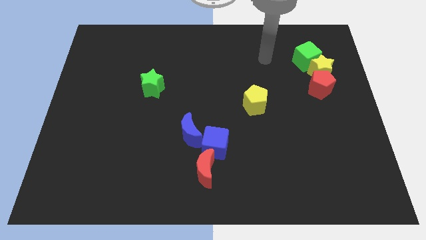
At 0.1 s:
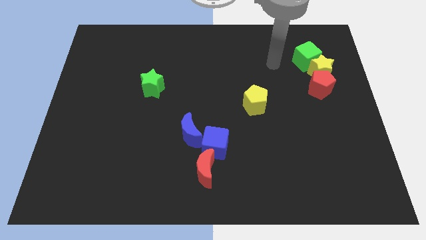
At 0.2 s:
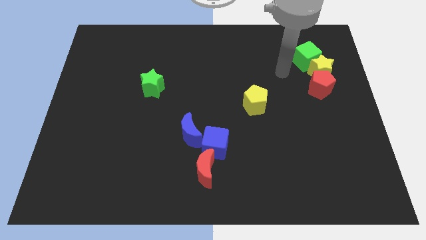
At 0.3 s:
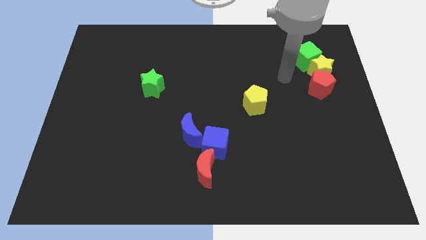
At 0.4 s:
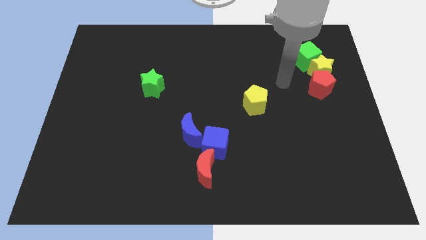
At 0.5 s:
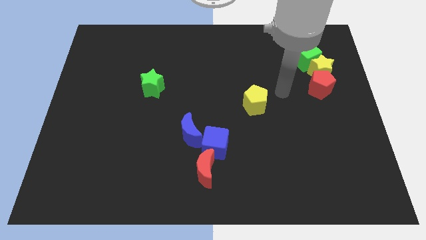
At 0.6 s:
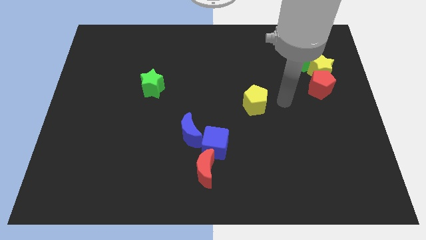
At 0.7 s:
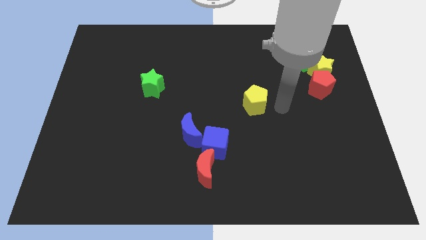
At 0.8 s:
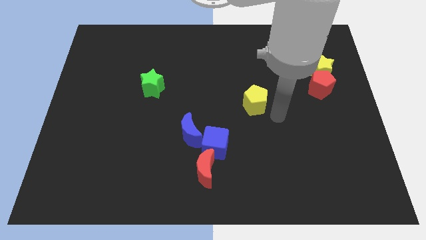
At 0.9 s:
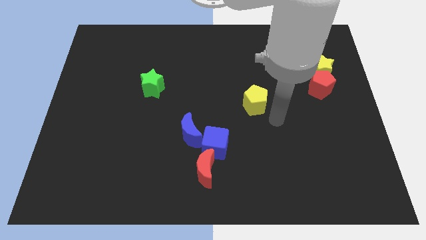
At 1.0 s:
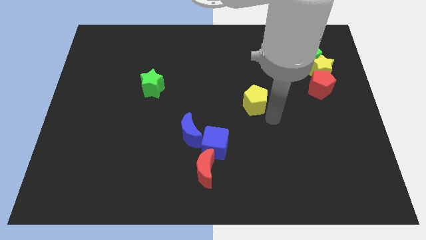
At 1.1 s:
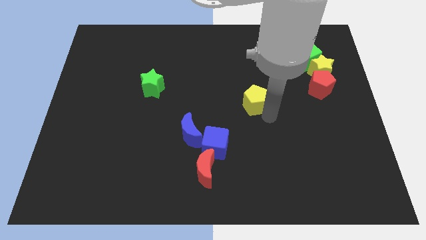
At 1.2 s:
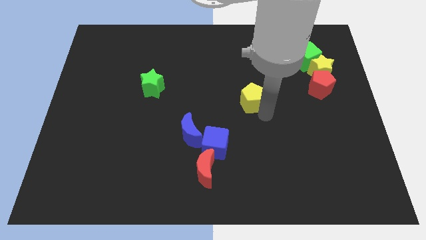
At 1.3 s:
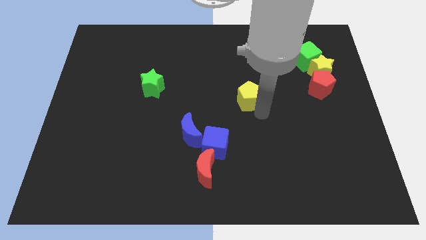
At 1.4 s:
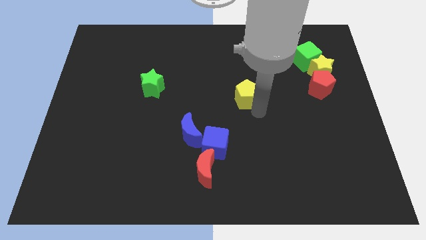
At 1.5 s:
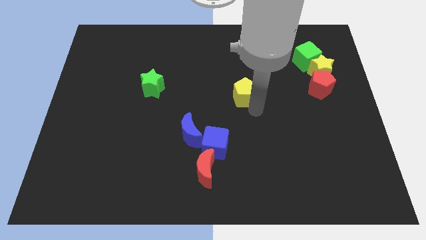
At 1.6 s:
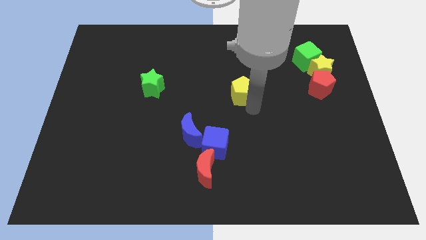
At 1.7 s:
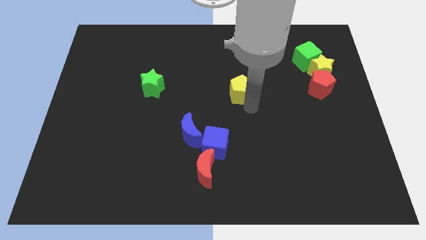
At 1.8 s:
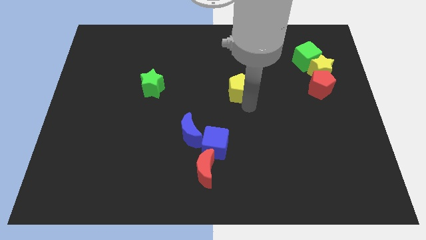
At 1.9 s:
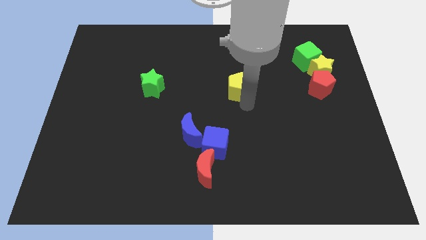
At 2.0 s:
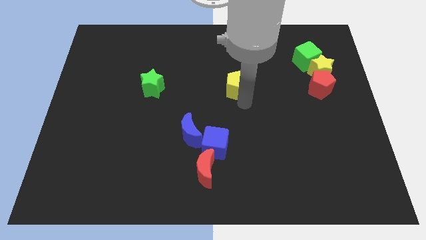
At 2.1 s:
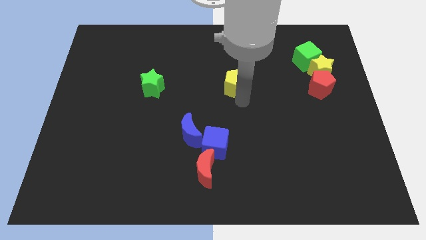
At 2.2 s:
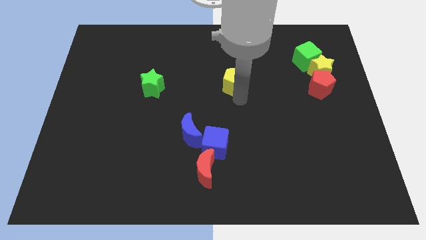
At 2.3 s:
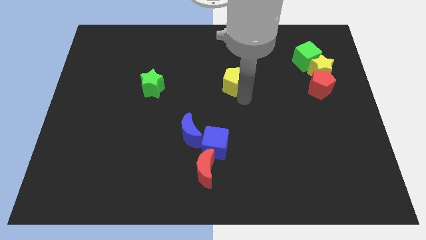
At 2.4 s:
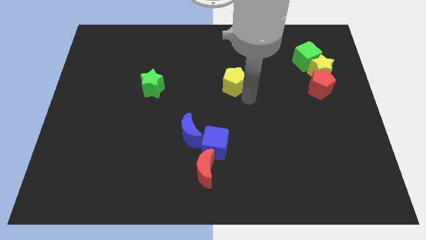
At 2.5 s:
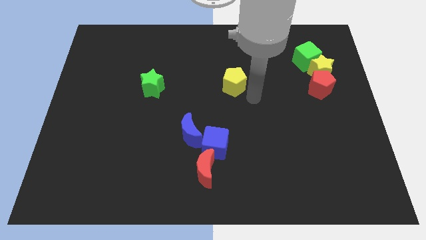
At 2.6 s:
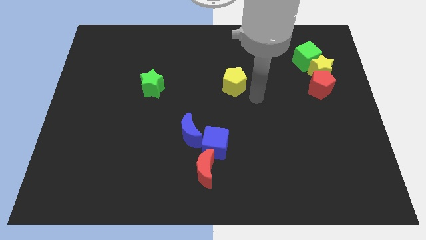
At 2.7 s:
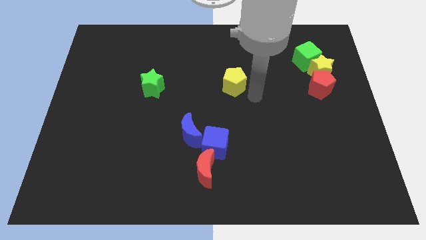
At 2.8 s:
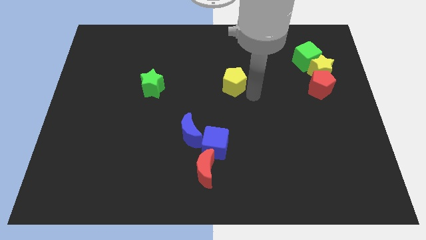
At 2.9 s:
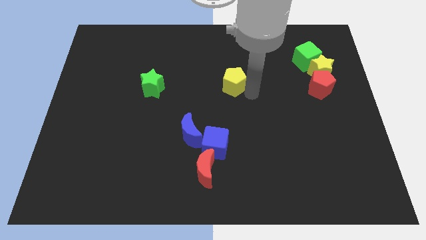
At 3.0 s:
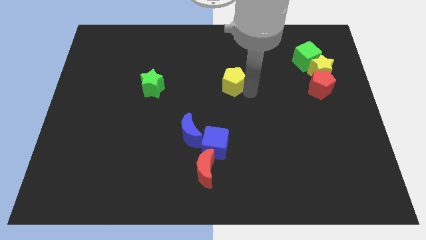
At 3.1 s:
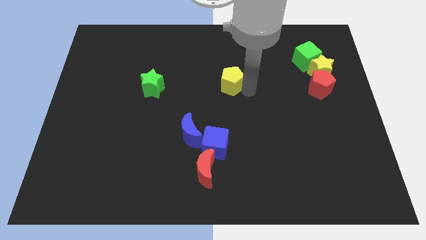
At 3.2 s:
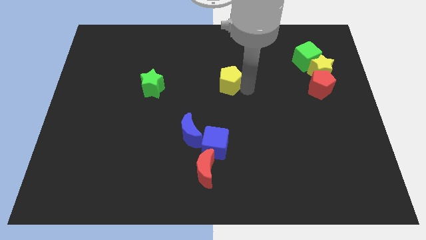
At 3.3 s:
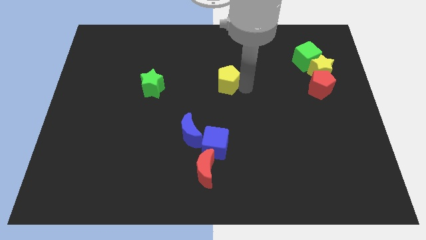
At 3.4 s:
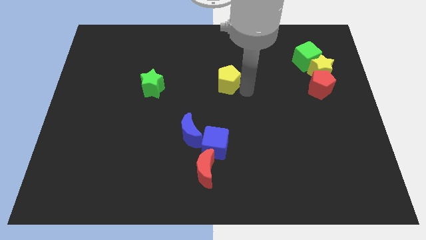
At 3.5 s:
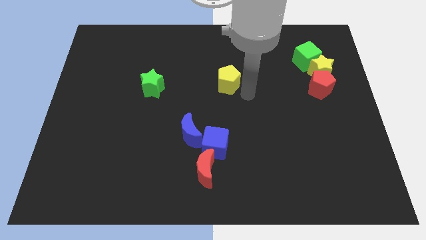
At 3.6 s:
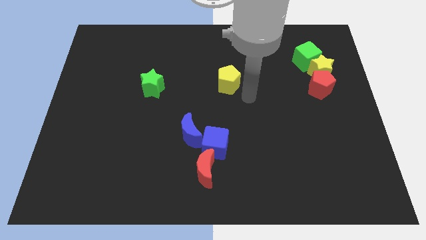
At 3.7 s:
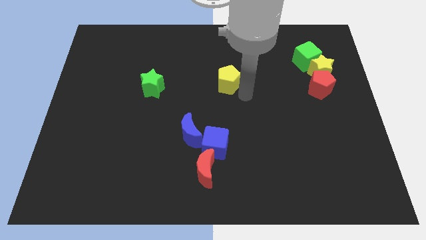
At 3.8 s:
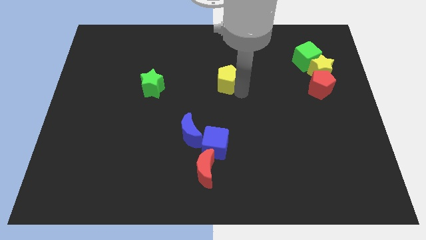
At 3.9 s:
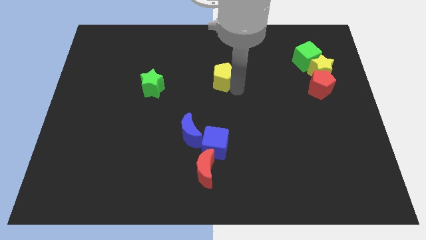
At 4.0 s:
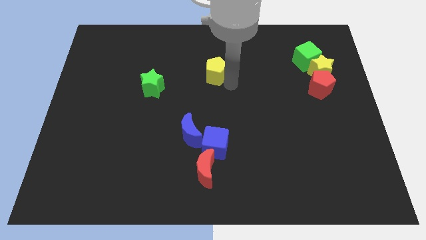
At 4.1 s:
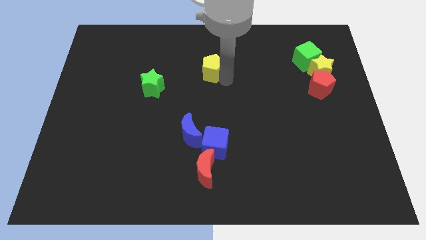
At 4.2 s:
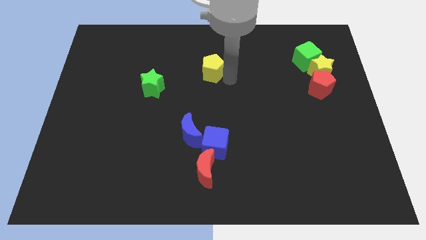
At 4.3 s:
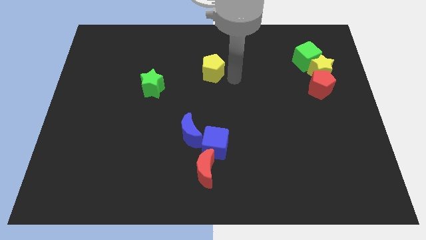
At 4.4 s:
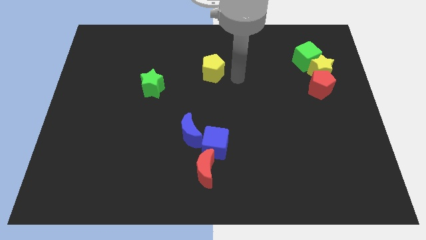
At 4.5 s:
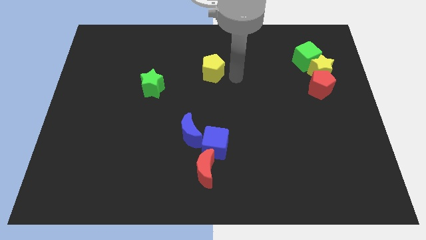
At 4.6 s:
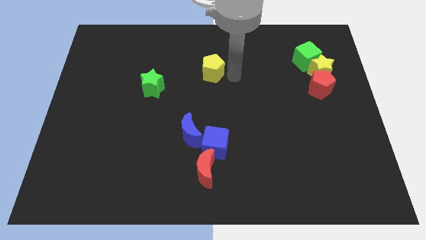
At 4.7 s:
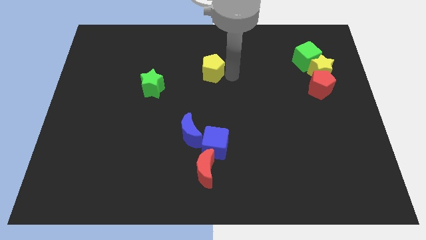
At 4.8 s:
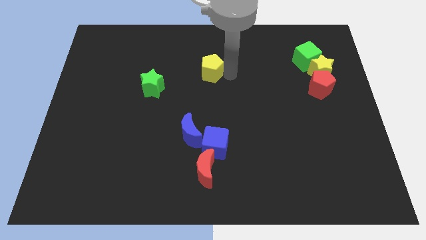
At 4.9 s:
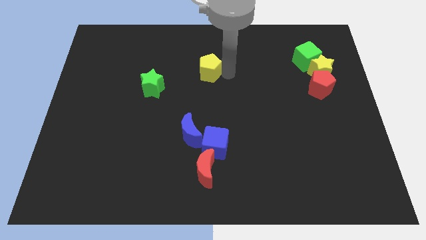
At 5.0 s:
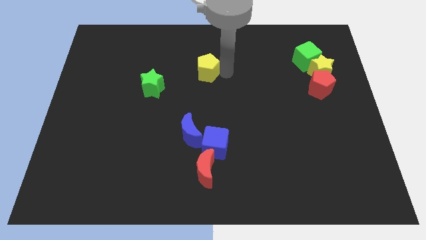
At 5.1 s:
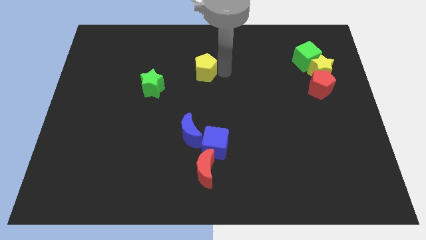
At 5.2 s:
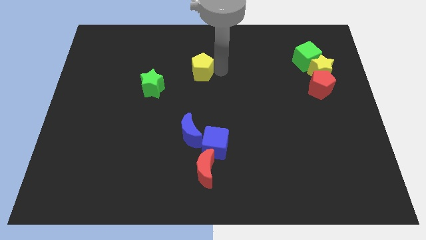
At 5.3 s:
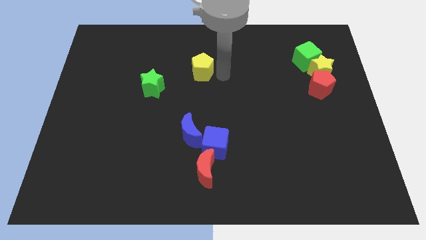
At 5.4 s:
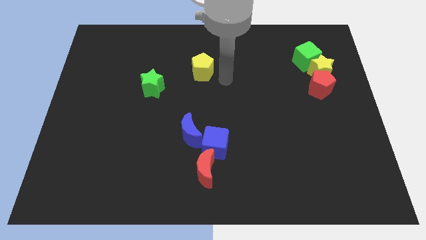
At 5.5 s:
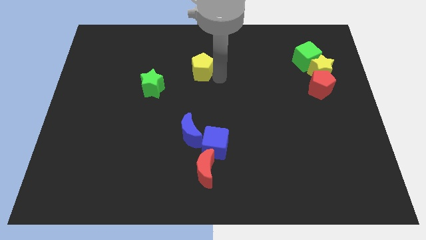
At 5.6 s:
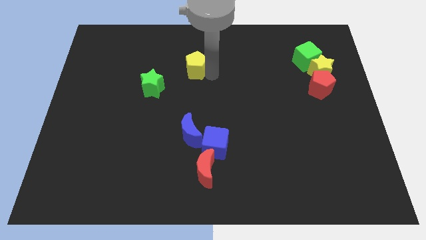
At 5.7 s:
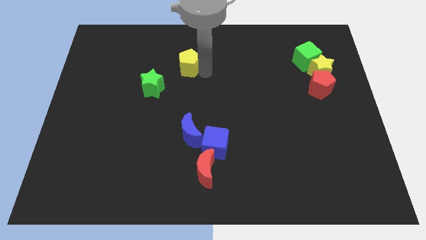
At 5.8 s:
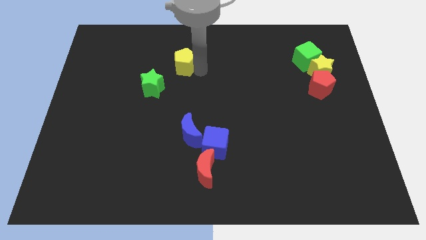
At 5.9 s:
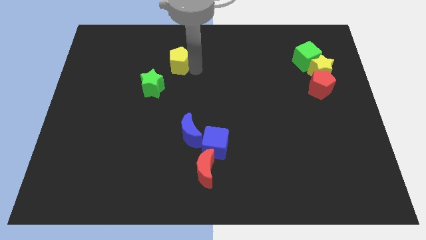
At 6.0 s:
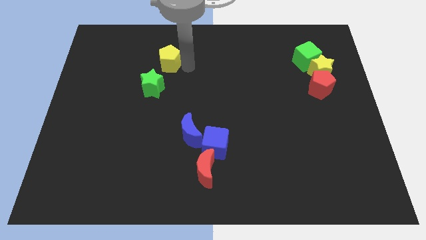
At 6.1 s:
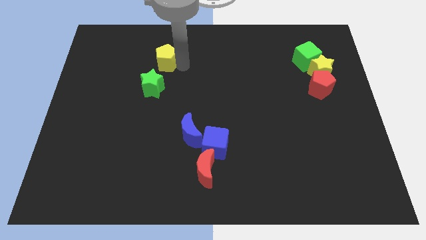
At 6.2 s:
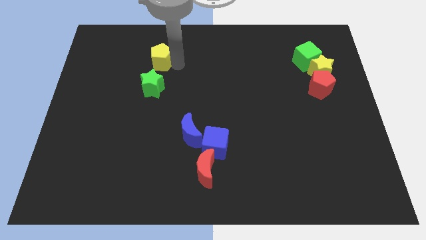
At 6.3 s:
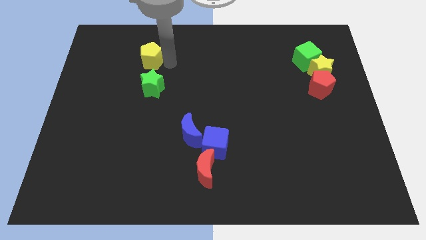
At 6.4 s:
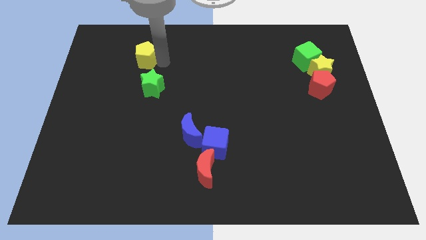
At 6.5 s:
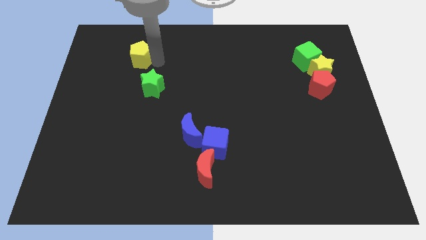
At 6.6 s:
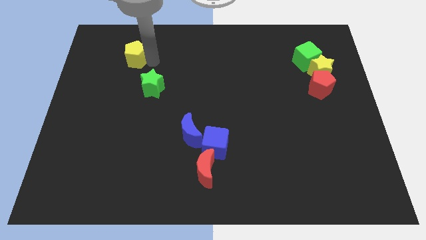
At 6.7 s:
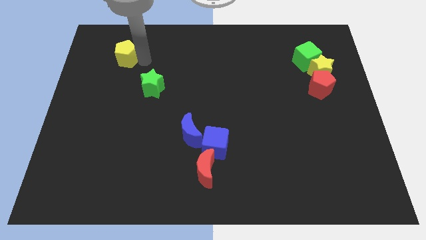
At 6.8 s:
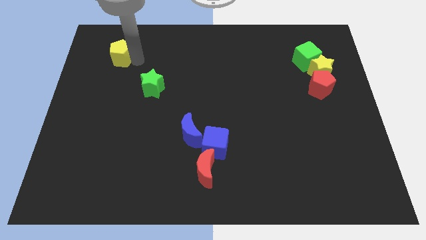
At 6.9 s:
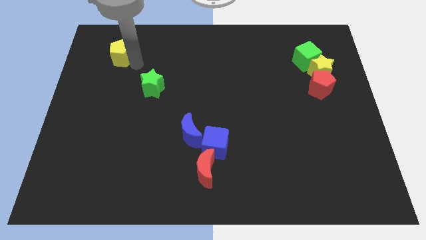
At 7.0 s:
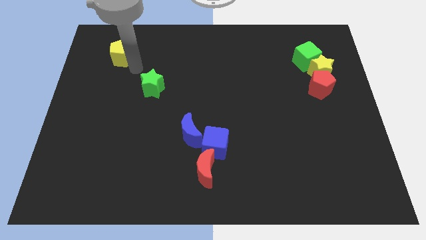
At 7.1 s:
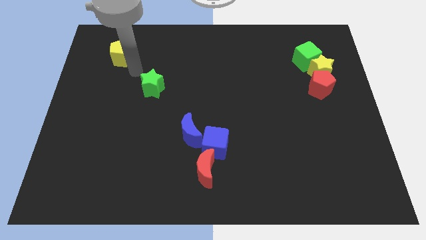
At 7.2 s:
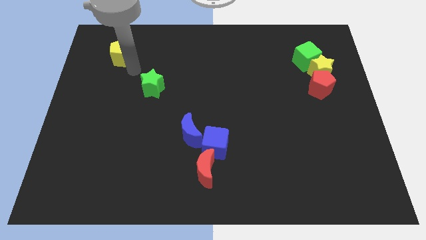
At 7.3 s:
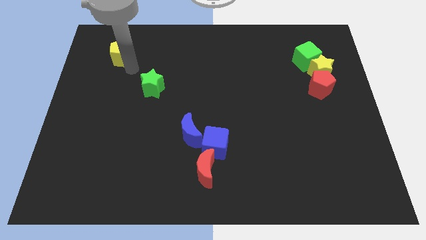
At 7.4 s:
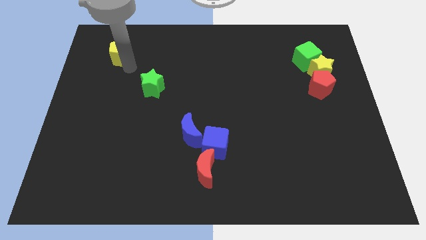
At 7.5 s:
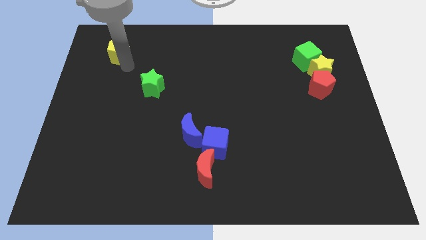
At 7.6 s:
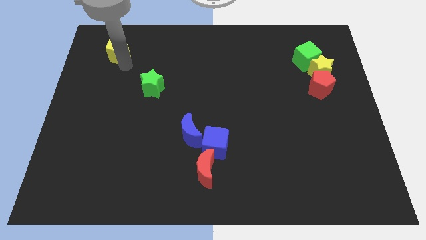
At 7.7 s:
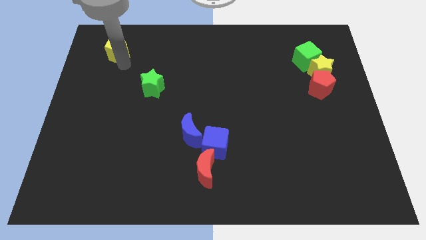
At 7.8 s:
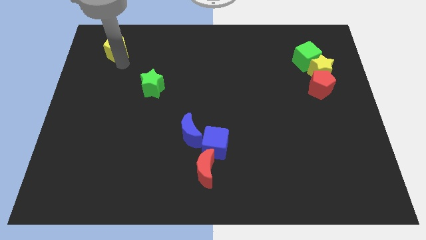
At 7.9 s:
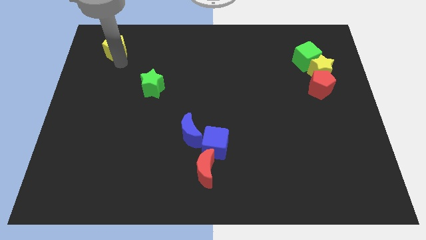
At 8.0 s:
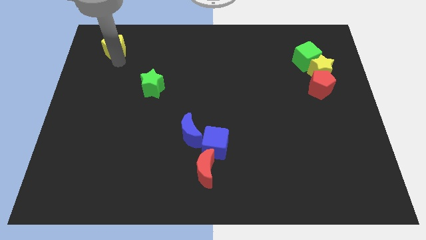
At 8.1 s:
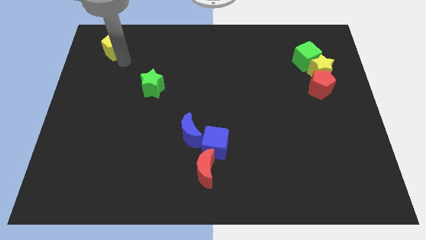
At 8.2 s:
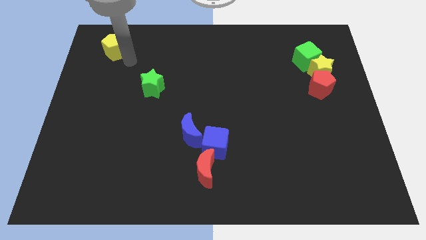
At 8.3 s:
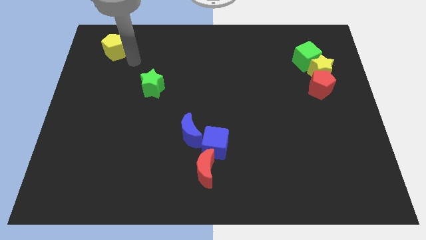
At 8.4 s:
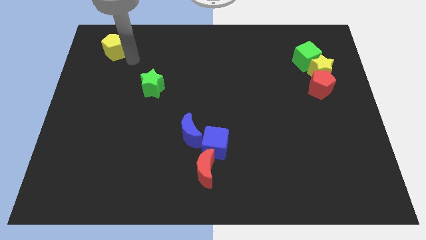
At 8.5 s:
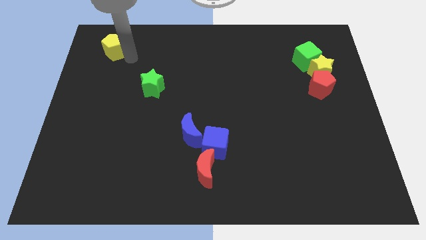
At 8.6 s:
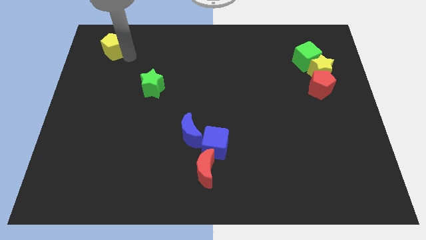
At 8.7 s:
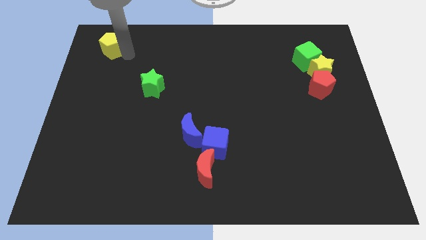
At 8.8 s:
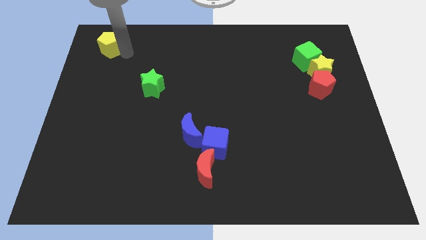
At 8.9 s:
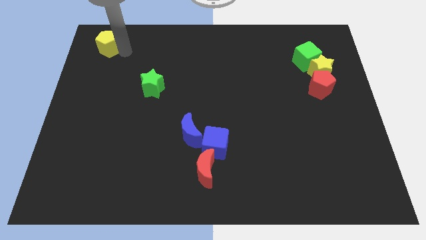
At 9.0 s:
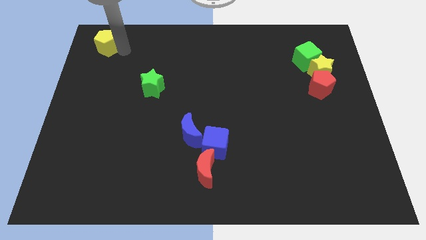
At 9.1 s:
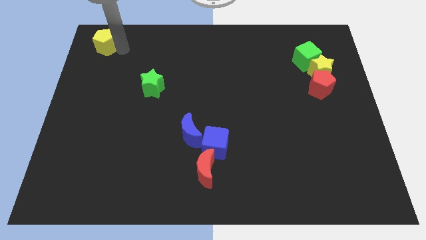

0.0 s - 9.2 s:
put the yellow pentagon to the top left corner
